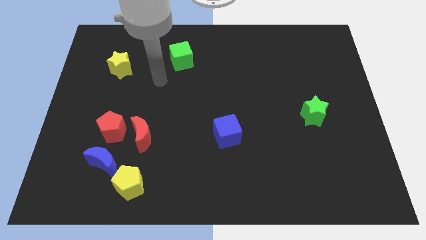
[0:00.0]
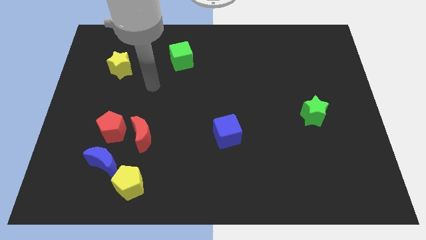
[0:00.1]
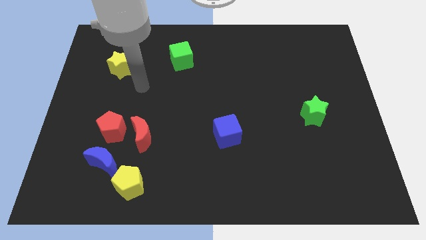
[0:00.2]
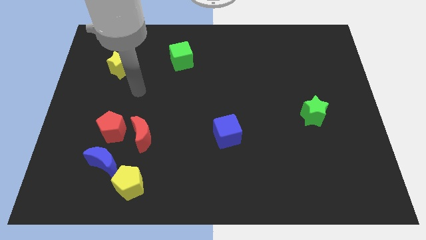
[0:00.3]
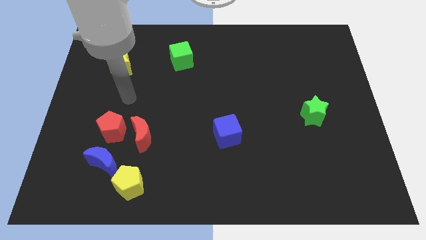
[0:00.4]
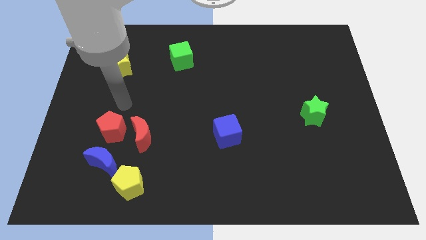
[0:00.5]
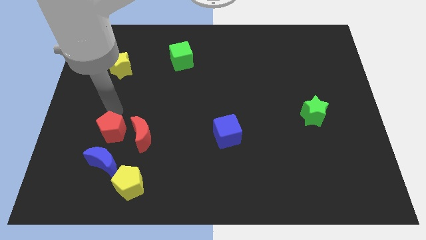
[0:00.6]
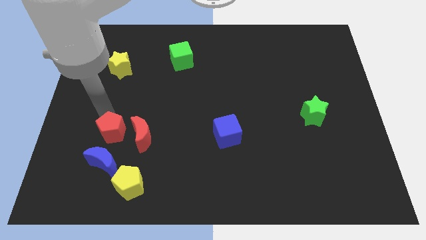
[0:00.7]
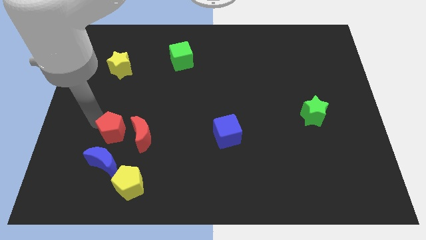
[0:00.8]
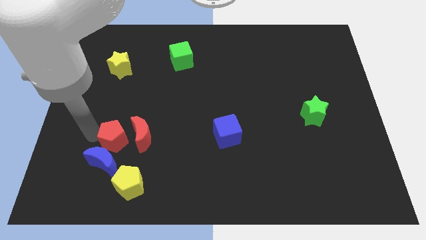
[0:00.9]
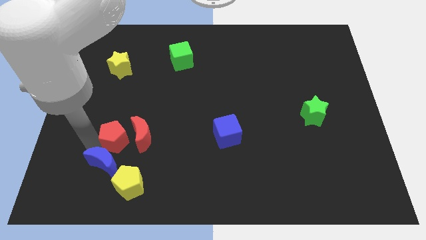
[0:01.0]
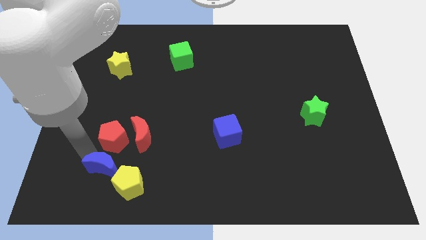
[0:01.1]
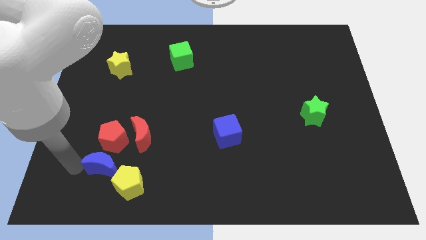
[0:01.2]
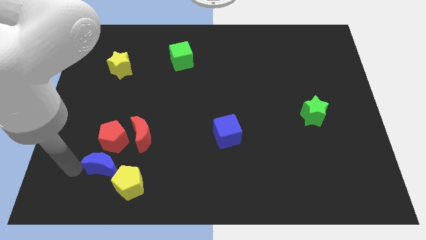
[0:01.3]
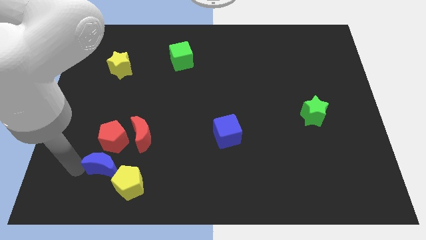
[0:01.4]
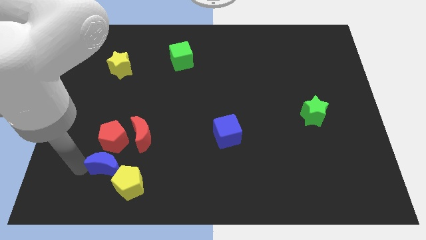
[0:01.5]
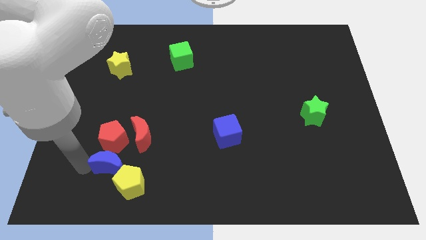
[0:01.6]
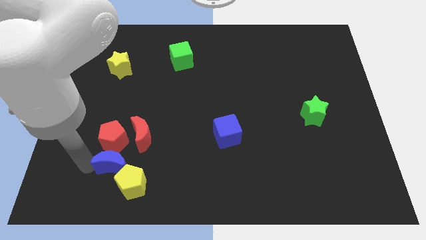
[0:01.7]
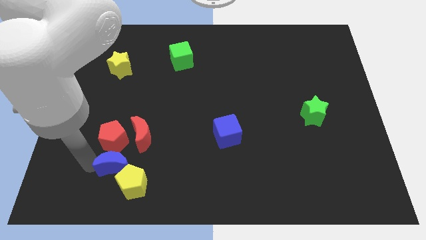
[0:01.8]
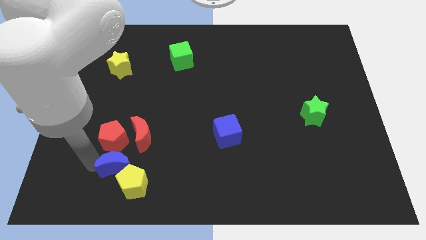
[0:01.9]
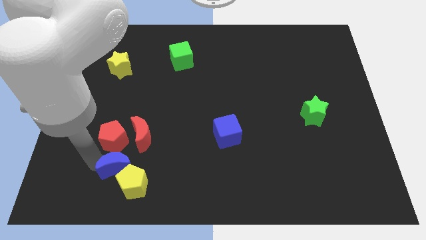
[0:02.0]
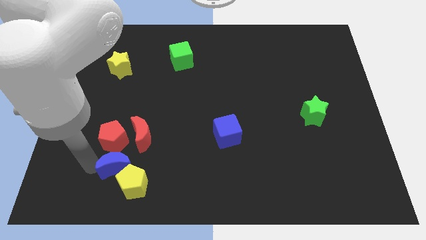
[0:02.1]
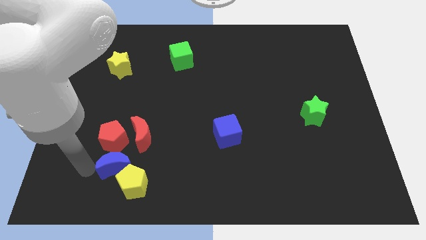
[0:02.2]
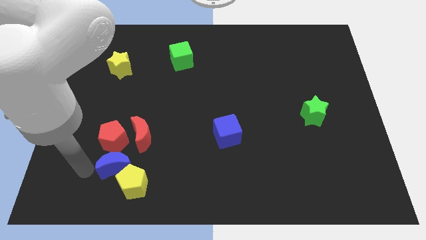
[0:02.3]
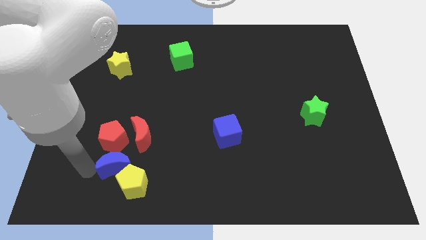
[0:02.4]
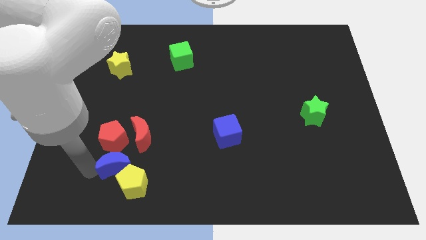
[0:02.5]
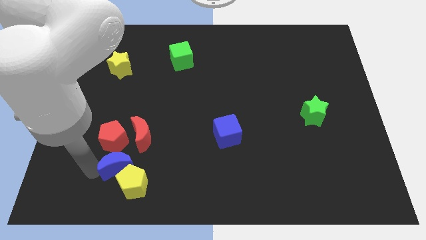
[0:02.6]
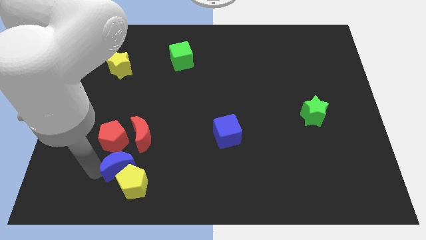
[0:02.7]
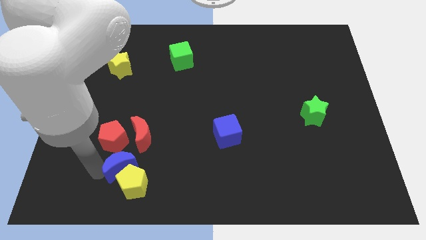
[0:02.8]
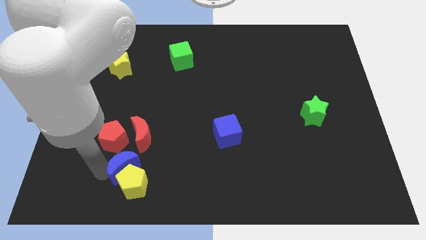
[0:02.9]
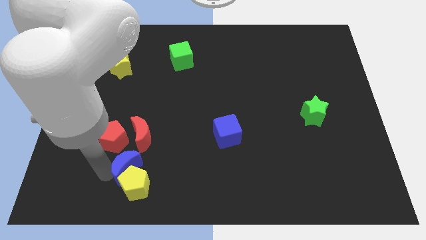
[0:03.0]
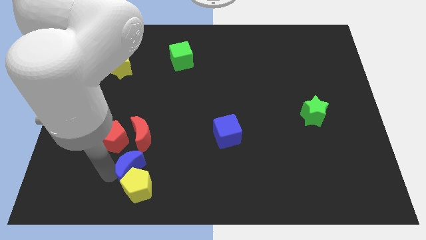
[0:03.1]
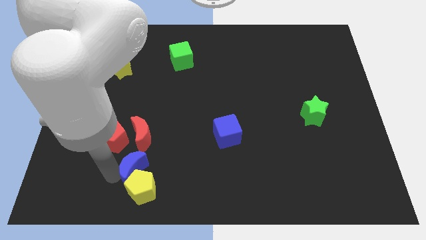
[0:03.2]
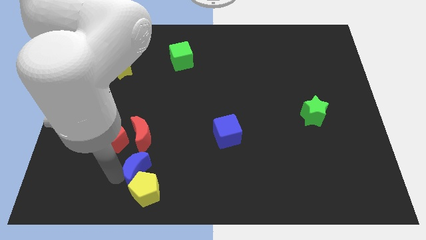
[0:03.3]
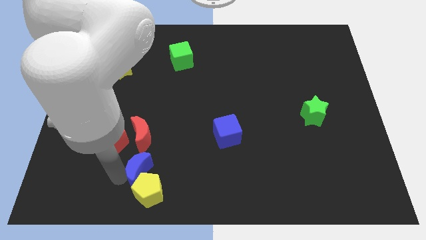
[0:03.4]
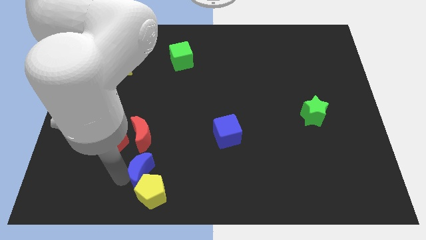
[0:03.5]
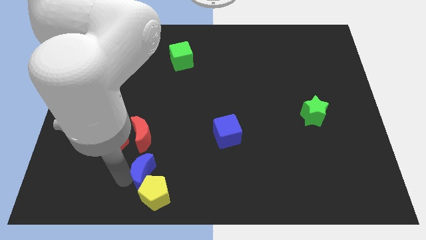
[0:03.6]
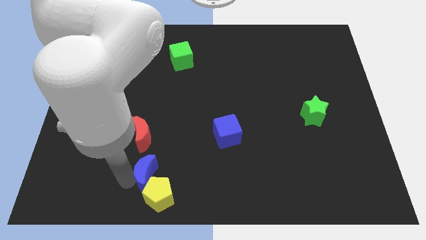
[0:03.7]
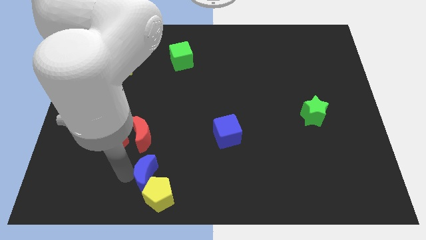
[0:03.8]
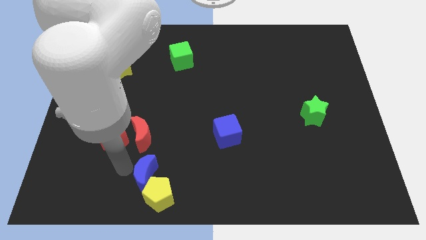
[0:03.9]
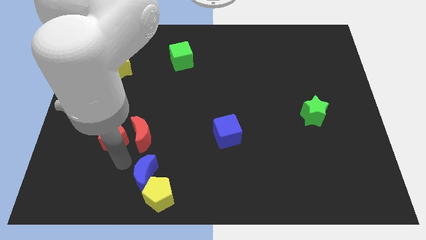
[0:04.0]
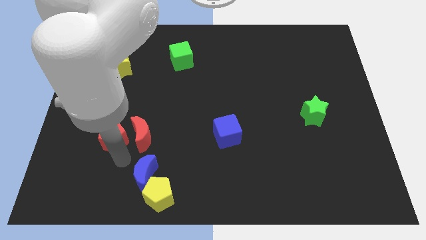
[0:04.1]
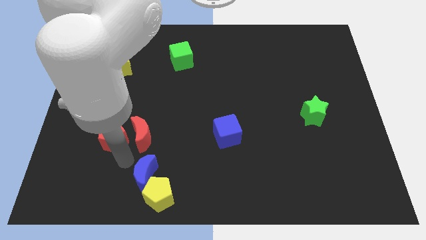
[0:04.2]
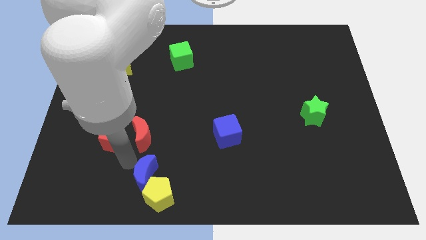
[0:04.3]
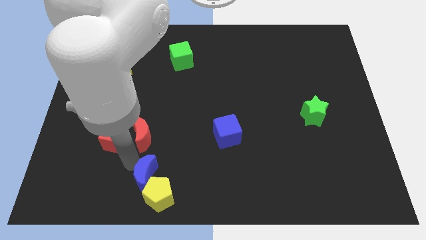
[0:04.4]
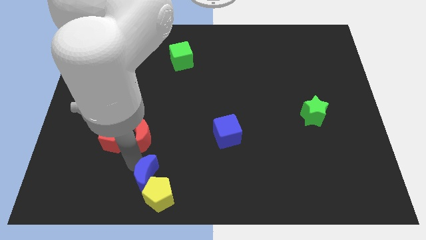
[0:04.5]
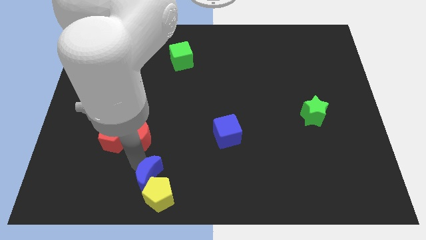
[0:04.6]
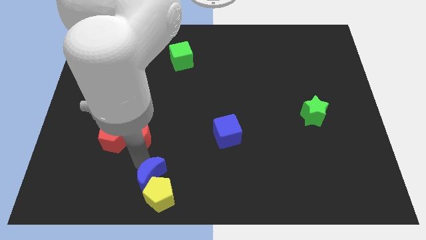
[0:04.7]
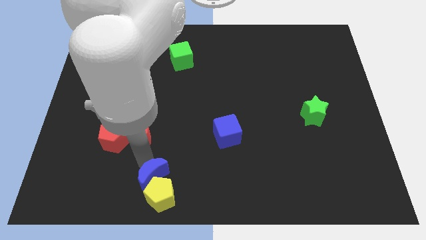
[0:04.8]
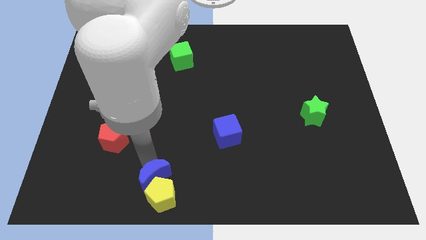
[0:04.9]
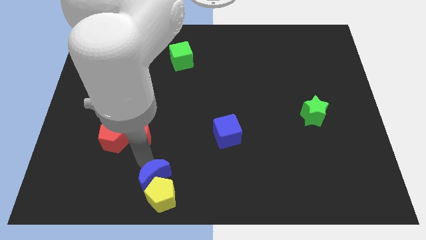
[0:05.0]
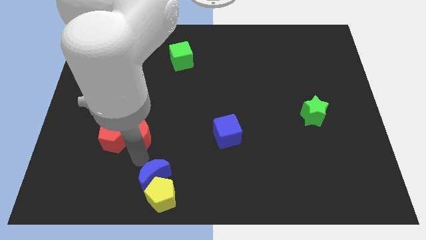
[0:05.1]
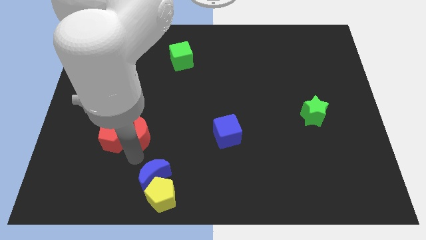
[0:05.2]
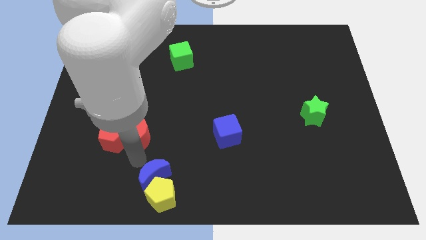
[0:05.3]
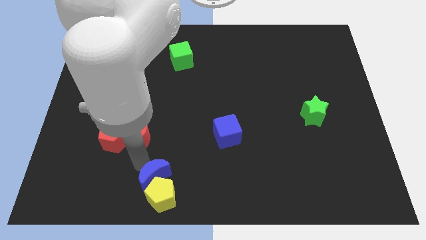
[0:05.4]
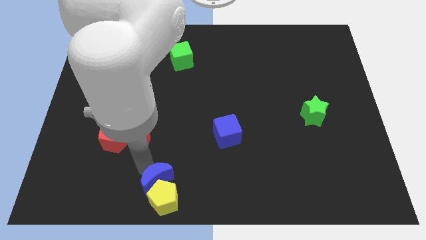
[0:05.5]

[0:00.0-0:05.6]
push the blue moon to the bottom side

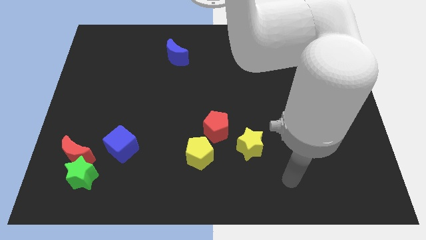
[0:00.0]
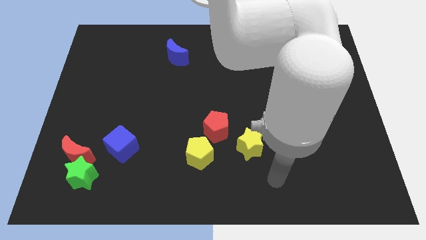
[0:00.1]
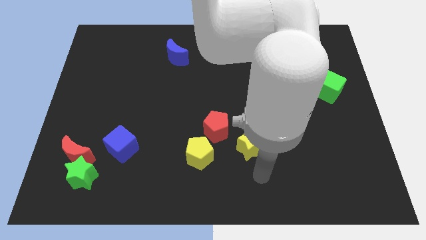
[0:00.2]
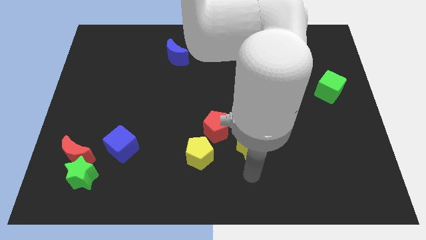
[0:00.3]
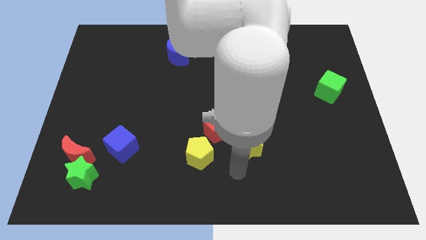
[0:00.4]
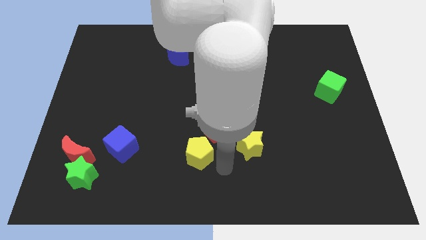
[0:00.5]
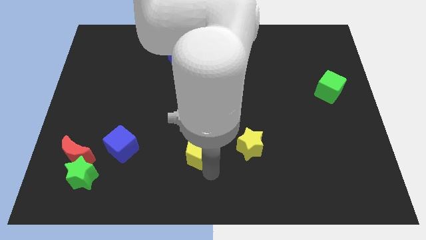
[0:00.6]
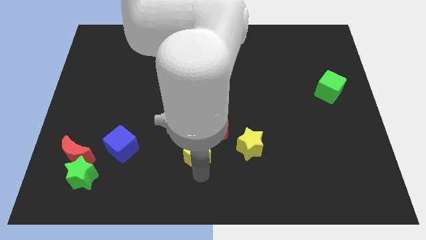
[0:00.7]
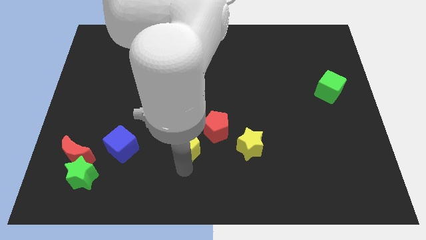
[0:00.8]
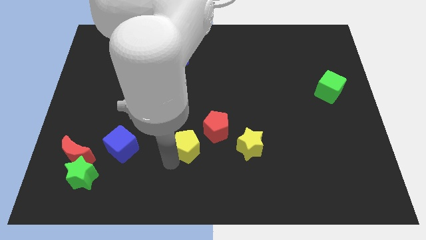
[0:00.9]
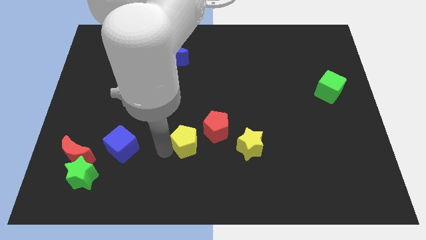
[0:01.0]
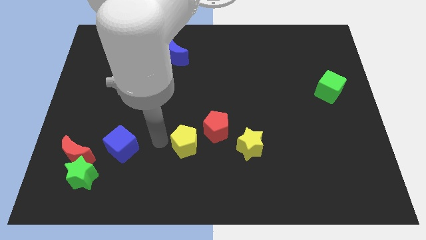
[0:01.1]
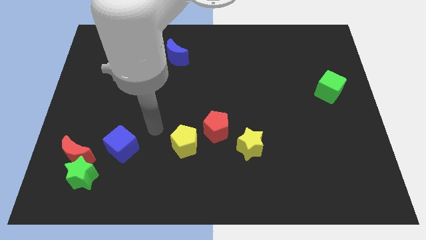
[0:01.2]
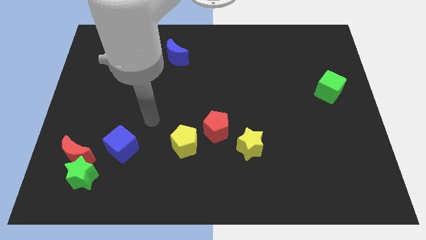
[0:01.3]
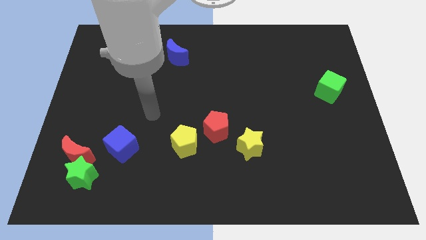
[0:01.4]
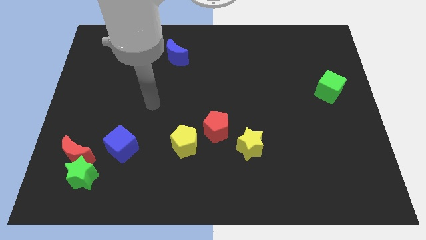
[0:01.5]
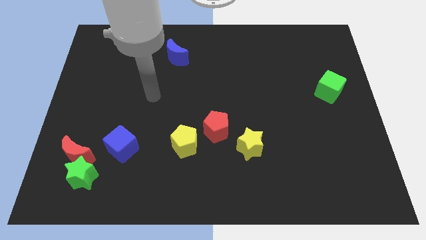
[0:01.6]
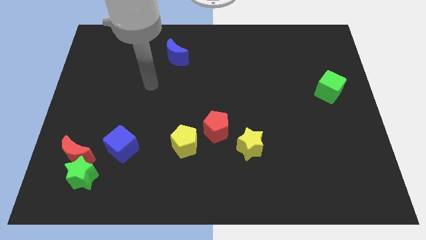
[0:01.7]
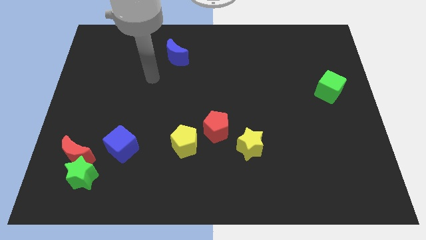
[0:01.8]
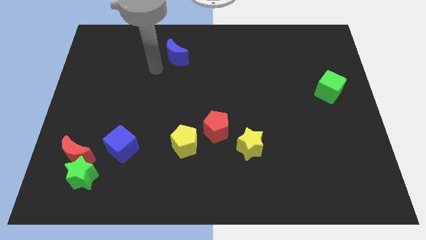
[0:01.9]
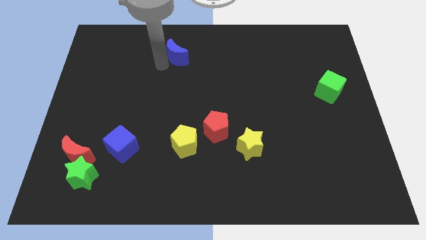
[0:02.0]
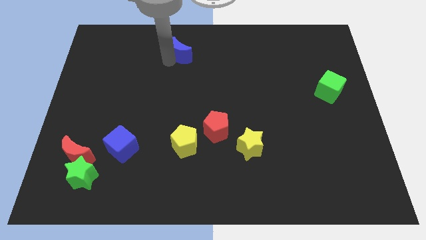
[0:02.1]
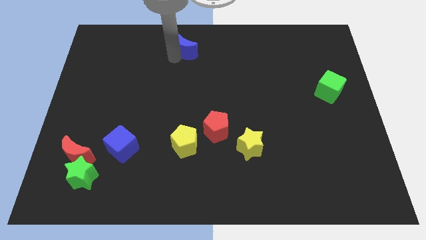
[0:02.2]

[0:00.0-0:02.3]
put the blue moon to the top
